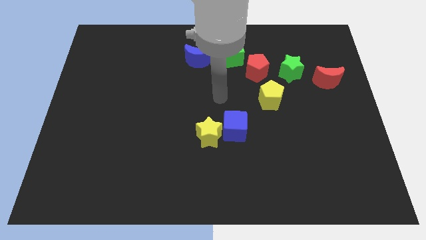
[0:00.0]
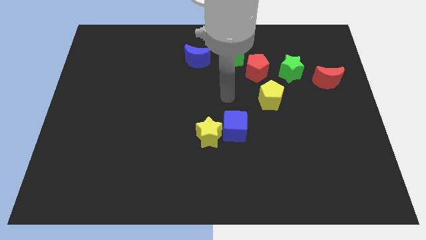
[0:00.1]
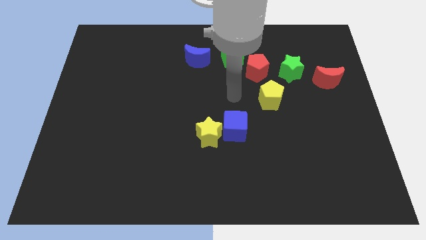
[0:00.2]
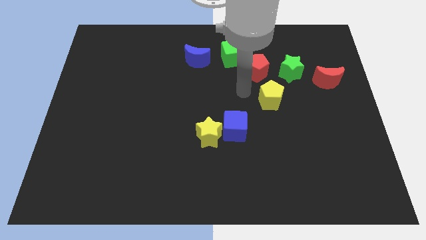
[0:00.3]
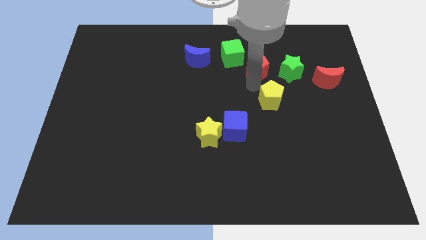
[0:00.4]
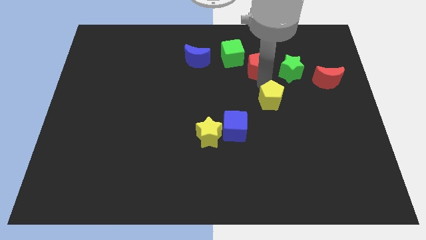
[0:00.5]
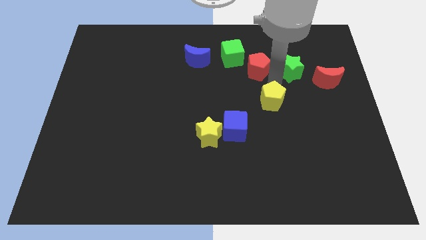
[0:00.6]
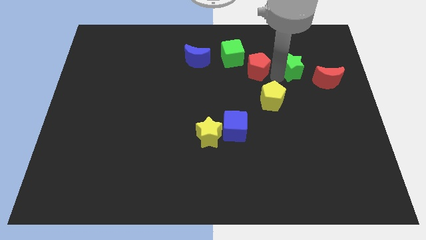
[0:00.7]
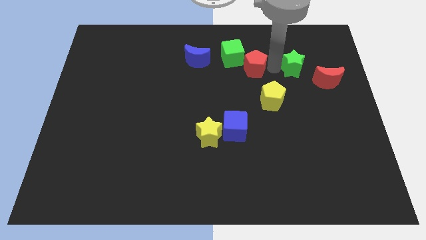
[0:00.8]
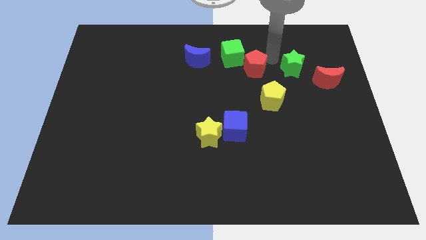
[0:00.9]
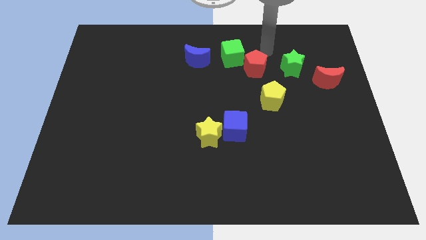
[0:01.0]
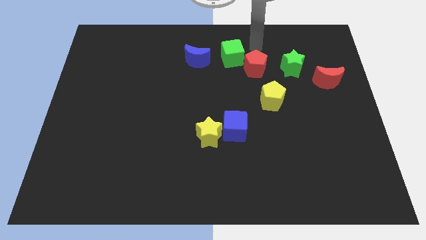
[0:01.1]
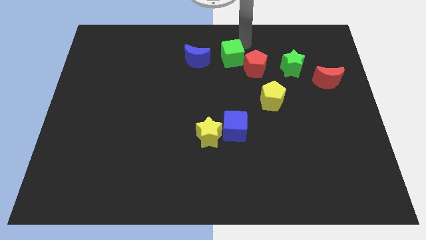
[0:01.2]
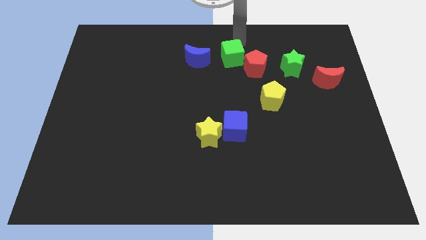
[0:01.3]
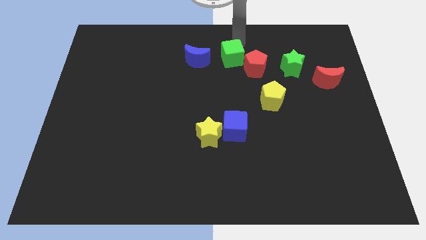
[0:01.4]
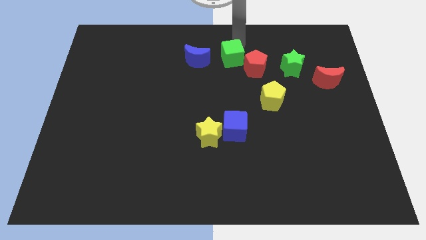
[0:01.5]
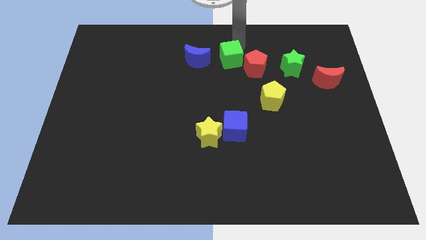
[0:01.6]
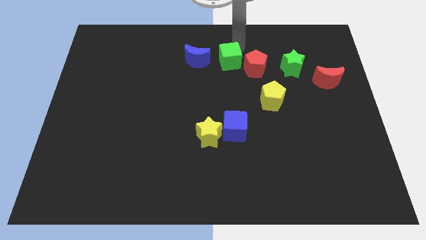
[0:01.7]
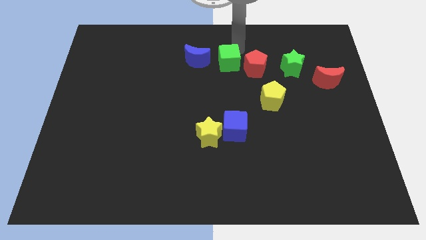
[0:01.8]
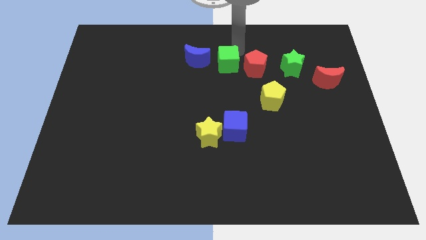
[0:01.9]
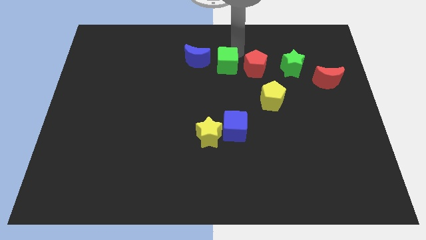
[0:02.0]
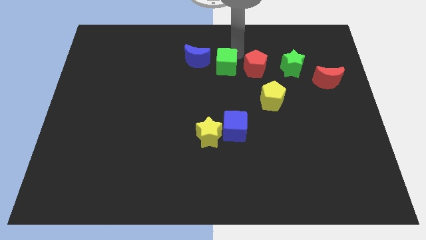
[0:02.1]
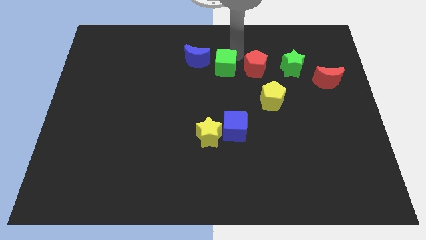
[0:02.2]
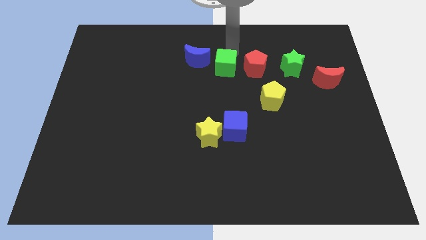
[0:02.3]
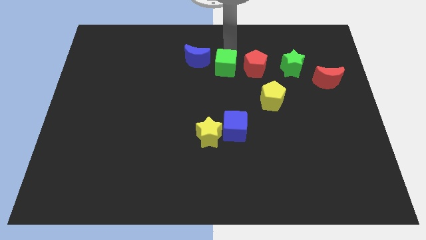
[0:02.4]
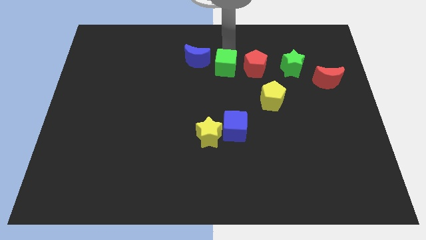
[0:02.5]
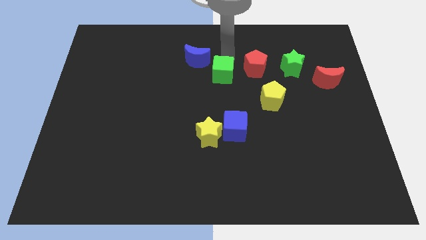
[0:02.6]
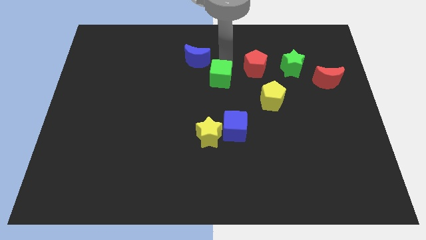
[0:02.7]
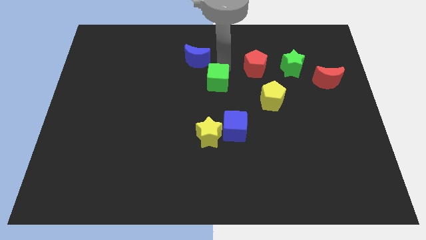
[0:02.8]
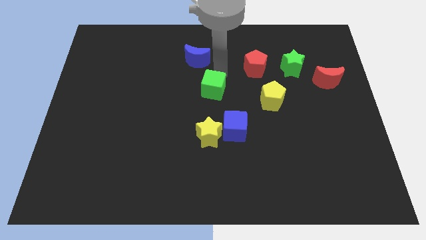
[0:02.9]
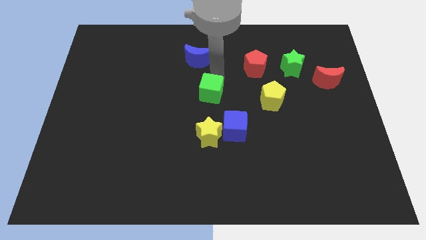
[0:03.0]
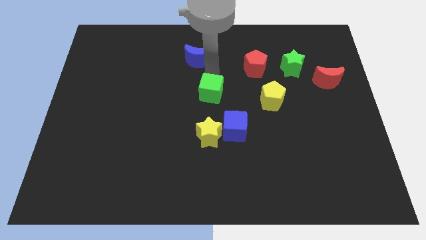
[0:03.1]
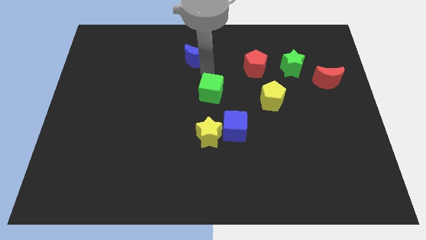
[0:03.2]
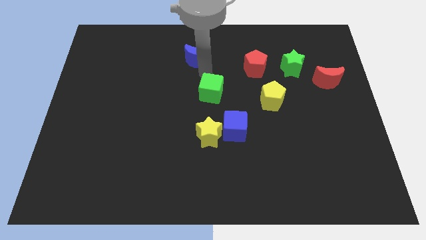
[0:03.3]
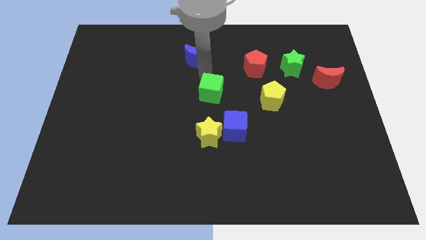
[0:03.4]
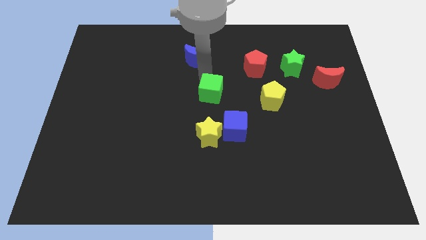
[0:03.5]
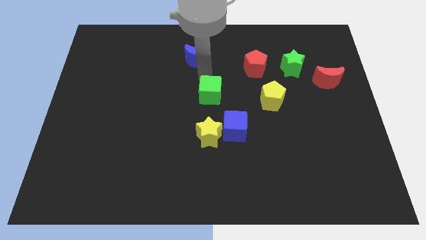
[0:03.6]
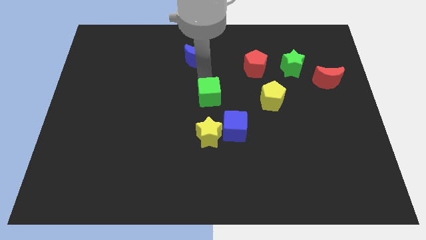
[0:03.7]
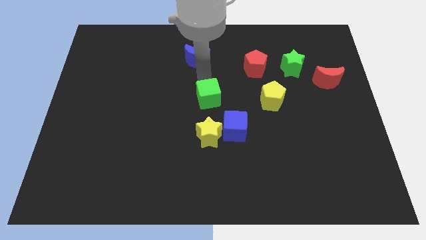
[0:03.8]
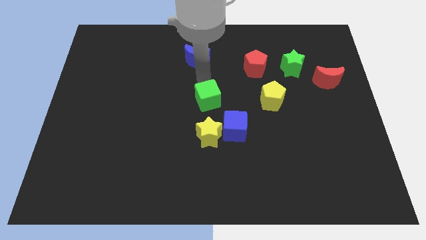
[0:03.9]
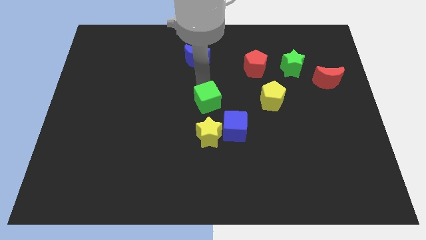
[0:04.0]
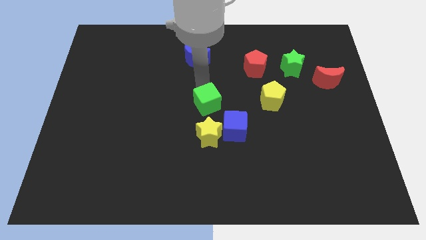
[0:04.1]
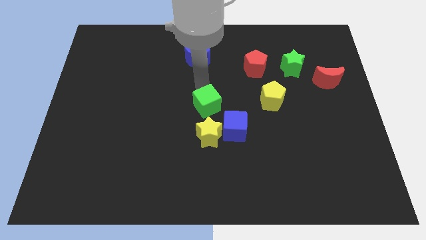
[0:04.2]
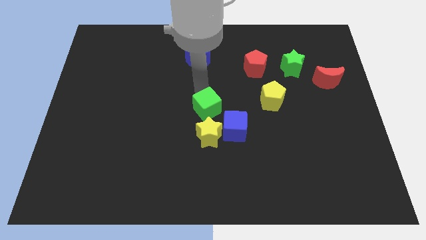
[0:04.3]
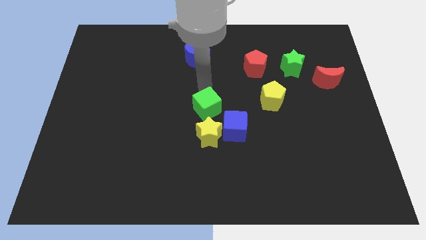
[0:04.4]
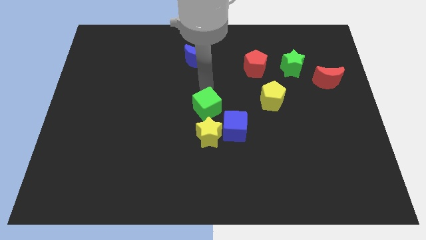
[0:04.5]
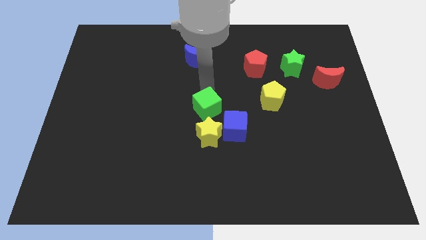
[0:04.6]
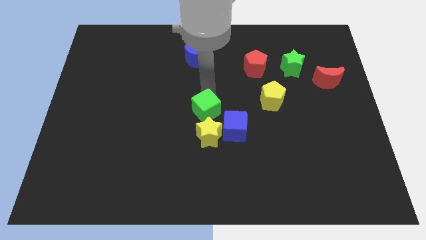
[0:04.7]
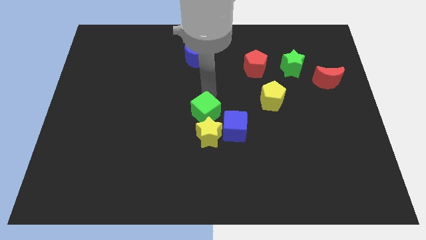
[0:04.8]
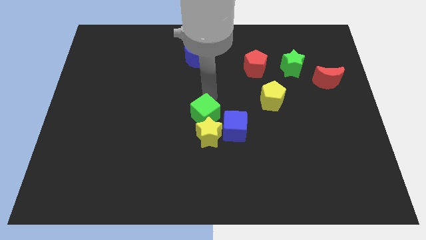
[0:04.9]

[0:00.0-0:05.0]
move the green cube next to the yellow star

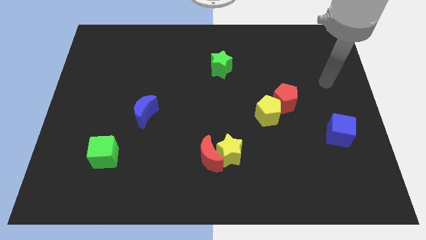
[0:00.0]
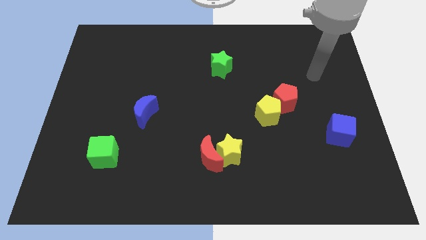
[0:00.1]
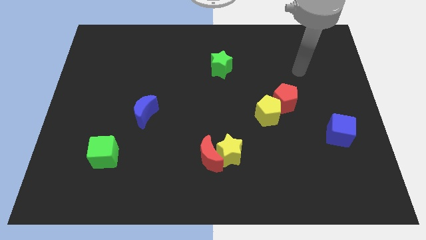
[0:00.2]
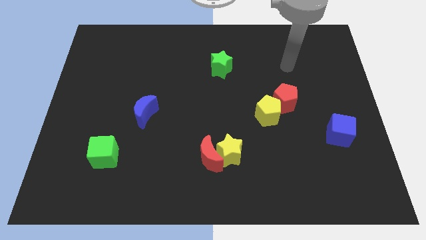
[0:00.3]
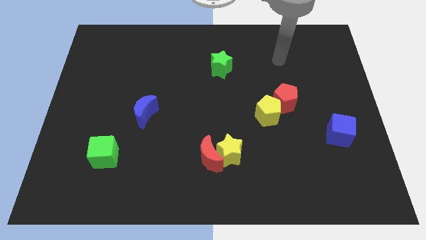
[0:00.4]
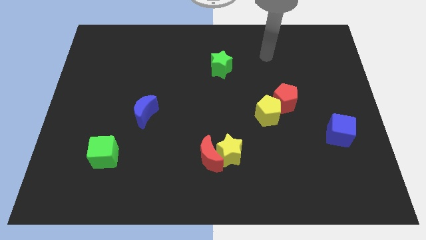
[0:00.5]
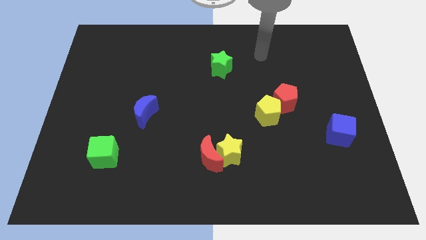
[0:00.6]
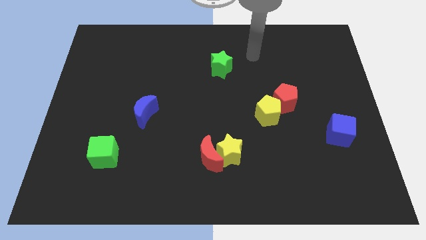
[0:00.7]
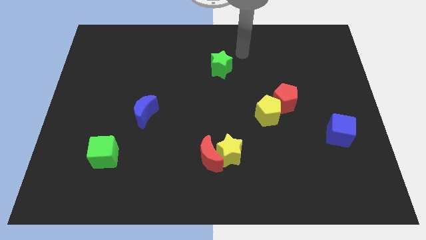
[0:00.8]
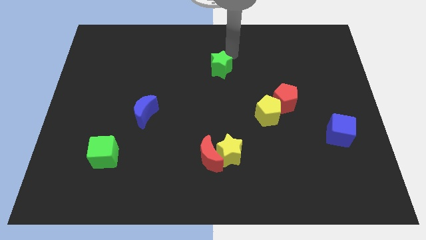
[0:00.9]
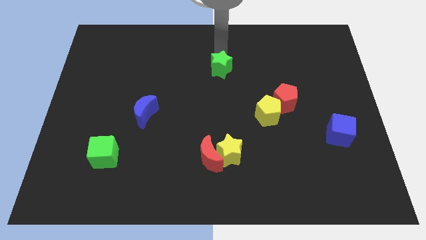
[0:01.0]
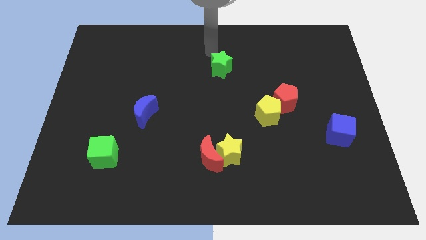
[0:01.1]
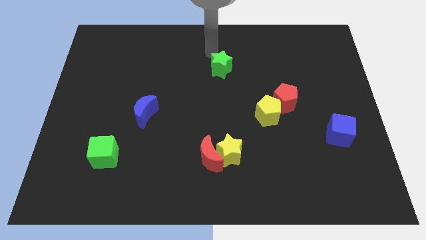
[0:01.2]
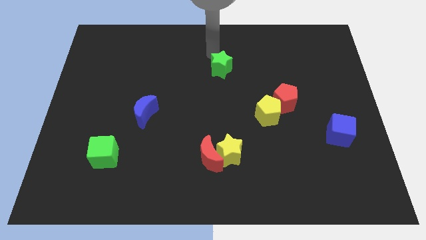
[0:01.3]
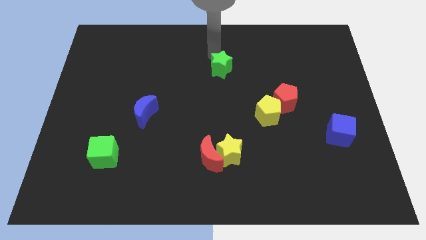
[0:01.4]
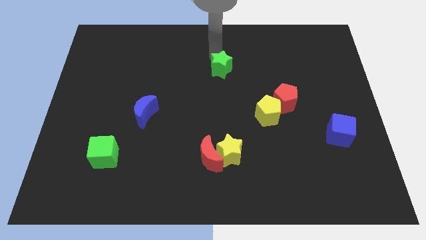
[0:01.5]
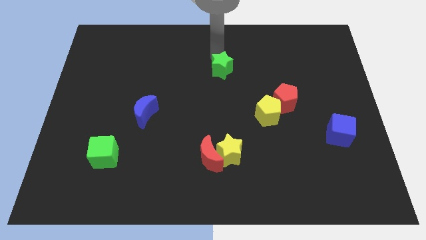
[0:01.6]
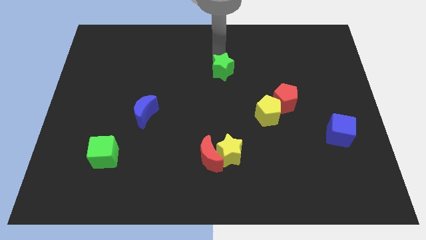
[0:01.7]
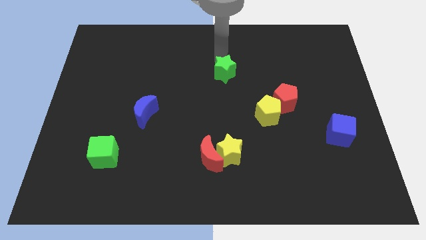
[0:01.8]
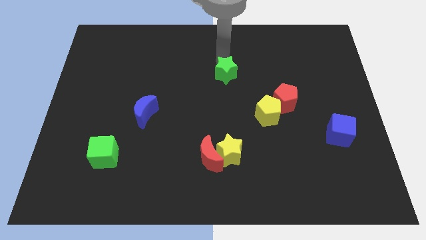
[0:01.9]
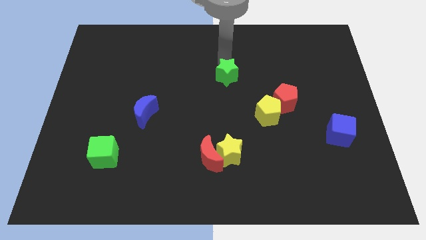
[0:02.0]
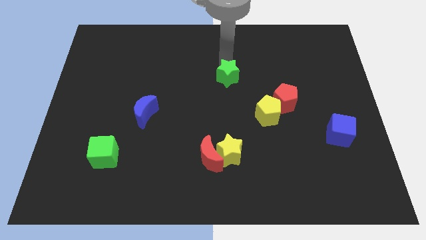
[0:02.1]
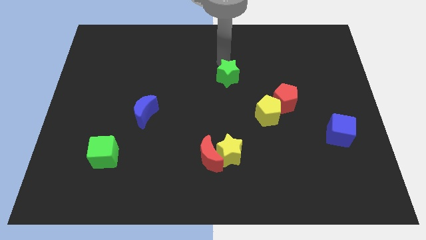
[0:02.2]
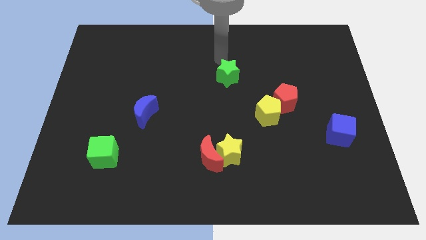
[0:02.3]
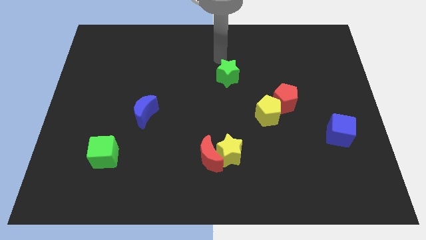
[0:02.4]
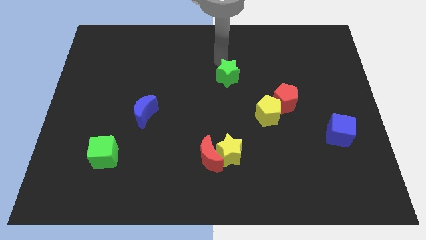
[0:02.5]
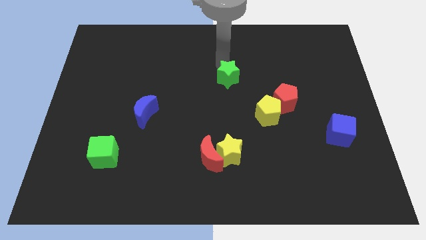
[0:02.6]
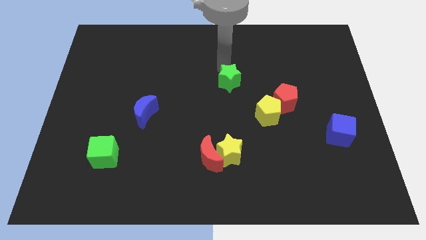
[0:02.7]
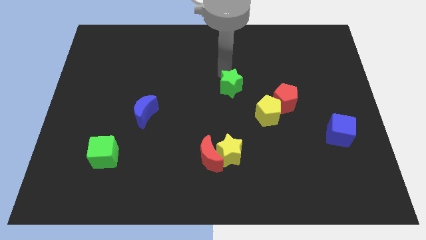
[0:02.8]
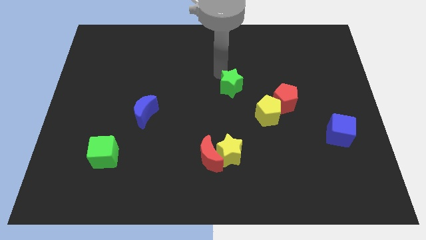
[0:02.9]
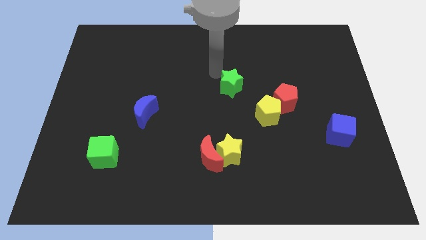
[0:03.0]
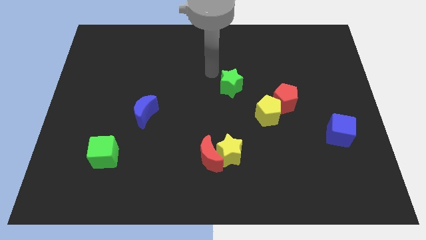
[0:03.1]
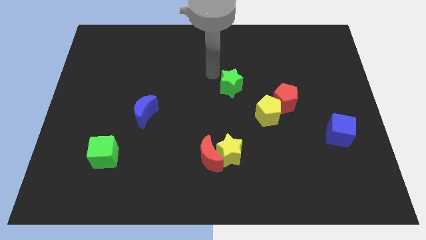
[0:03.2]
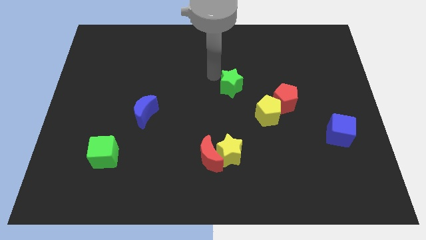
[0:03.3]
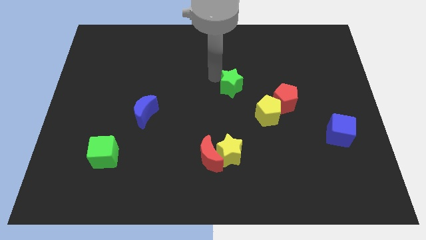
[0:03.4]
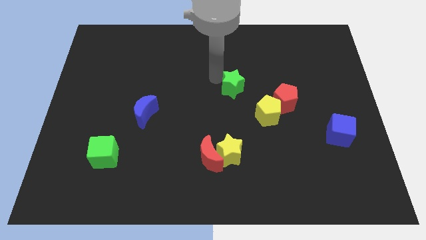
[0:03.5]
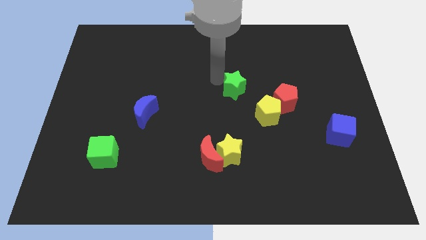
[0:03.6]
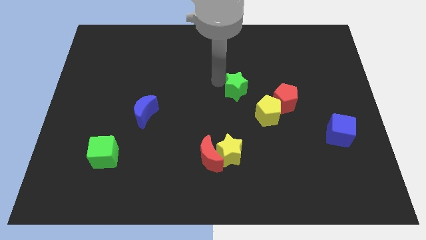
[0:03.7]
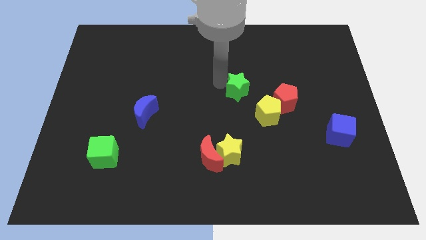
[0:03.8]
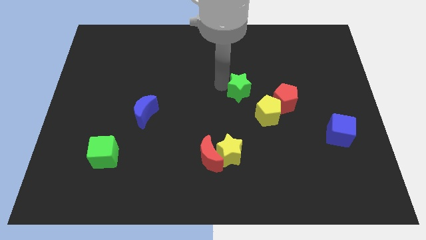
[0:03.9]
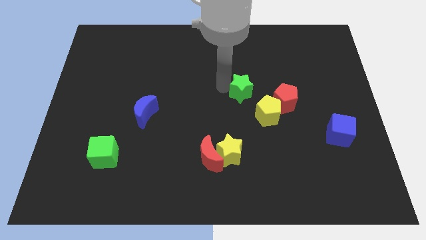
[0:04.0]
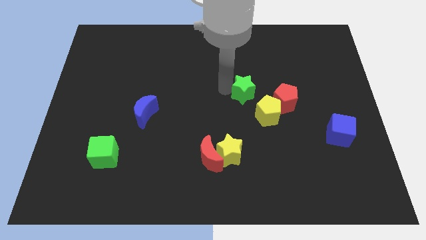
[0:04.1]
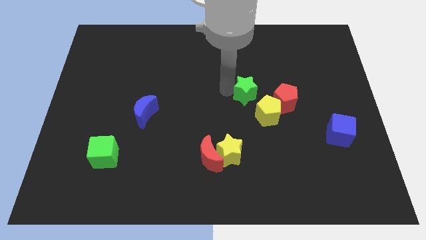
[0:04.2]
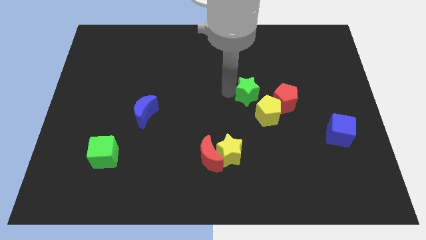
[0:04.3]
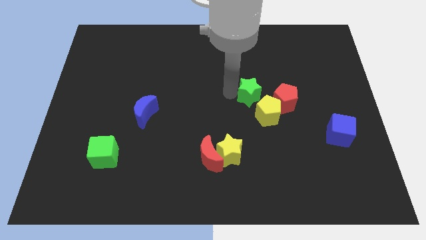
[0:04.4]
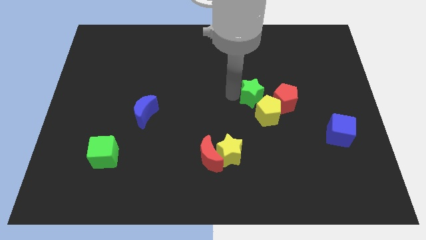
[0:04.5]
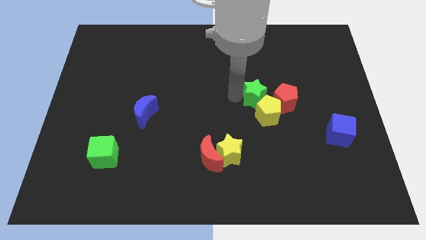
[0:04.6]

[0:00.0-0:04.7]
put the green star towards the yellow pentagon
